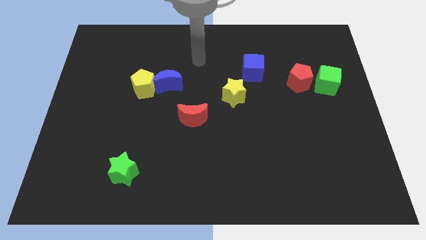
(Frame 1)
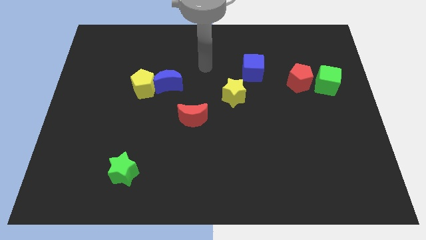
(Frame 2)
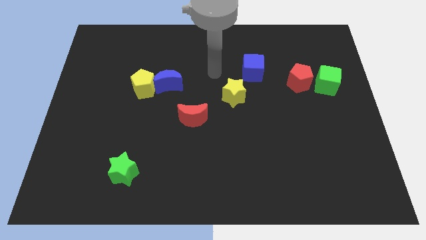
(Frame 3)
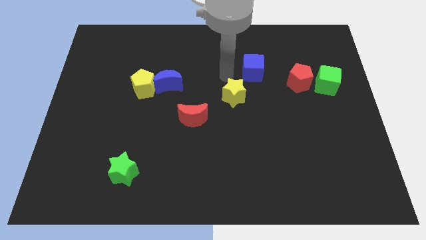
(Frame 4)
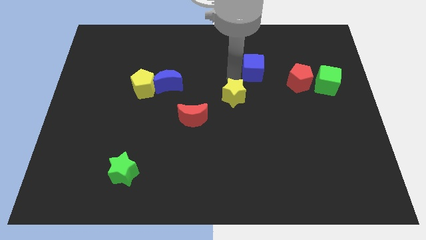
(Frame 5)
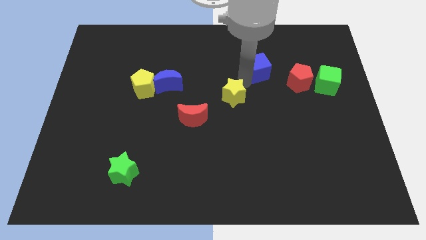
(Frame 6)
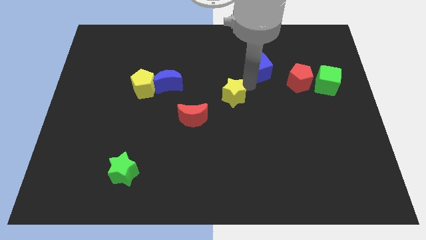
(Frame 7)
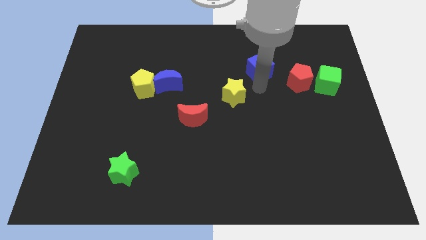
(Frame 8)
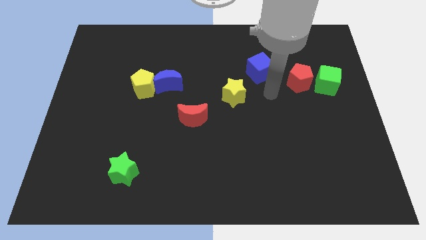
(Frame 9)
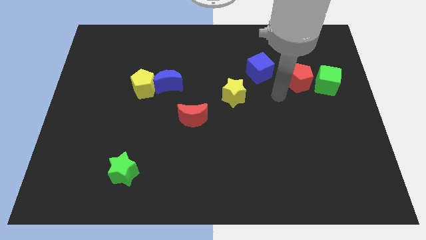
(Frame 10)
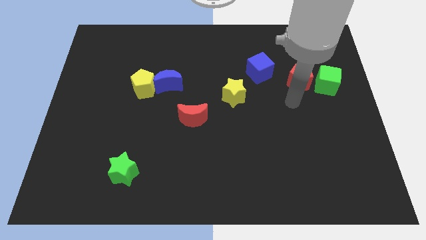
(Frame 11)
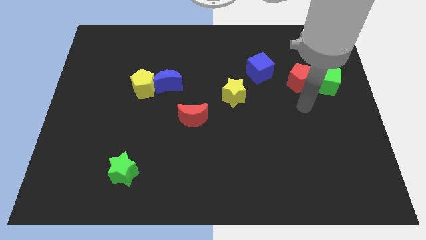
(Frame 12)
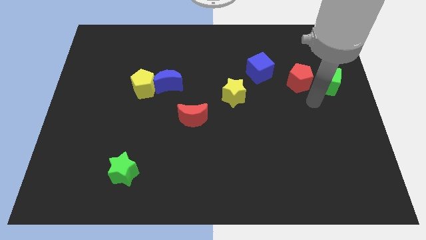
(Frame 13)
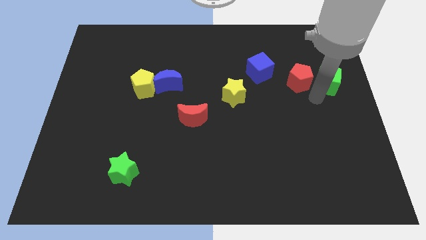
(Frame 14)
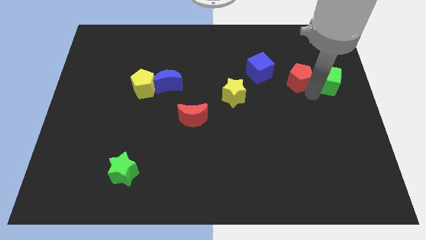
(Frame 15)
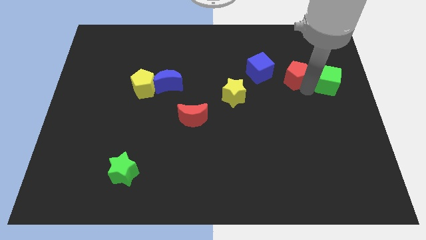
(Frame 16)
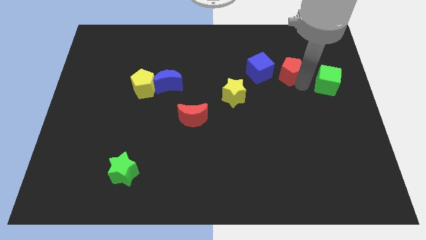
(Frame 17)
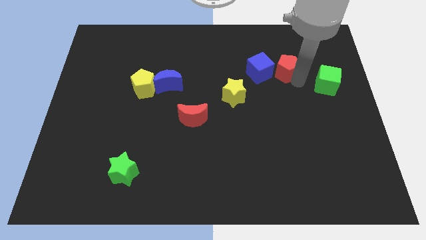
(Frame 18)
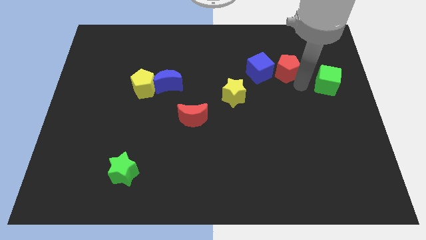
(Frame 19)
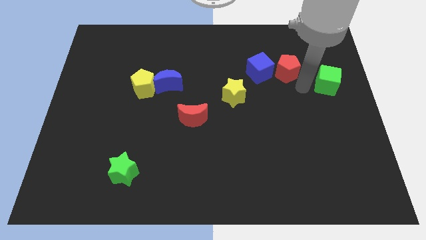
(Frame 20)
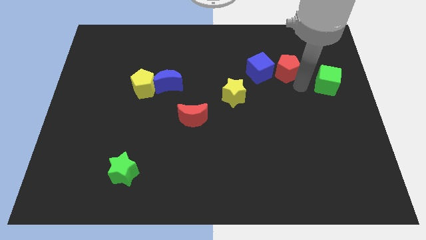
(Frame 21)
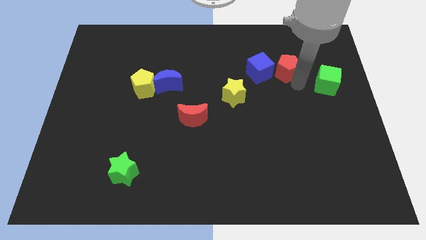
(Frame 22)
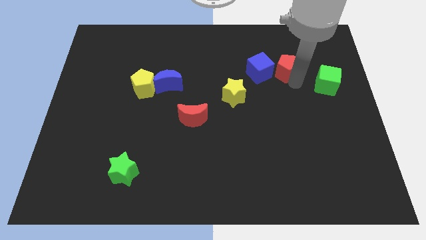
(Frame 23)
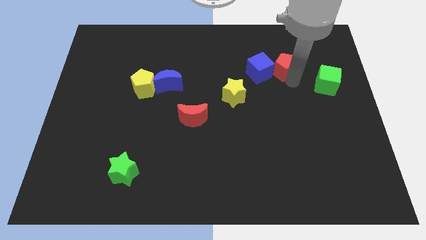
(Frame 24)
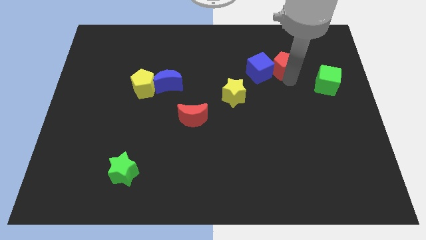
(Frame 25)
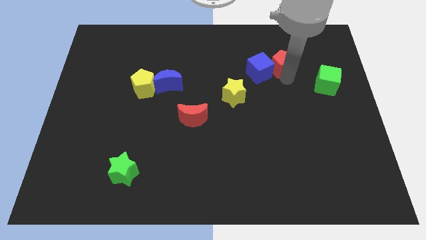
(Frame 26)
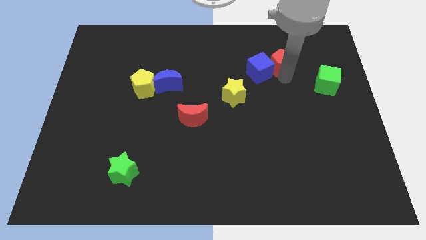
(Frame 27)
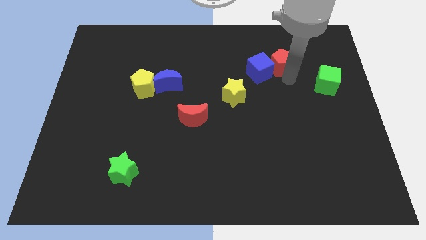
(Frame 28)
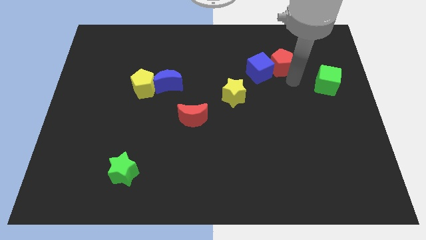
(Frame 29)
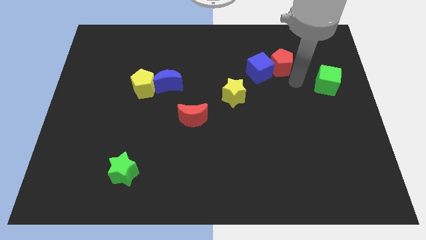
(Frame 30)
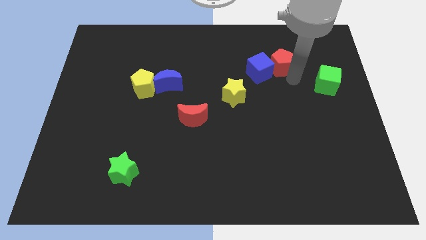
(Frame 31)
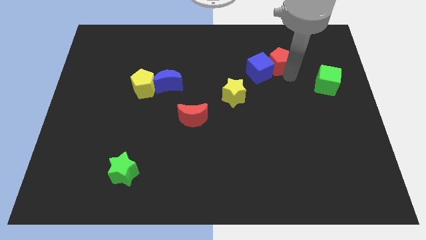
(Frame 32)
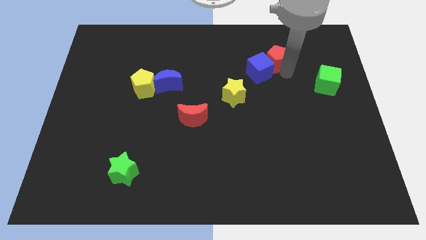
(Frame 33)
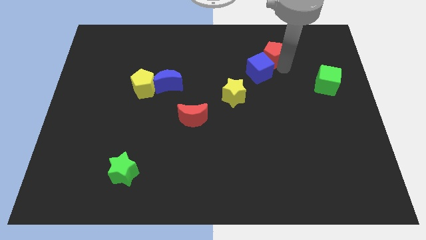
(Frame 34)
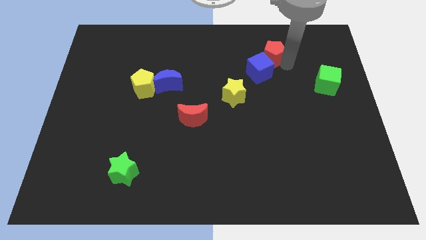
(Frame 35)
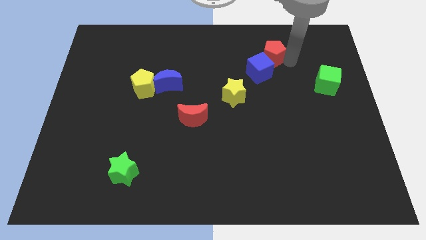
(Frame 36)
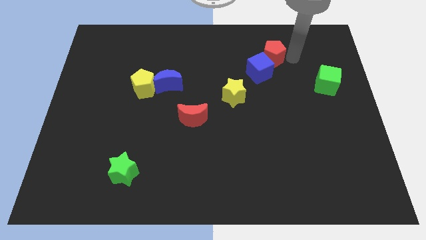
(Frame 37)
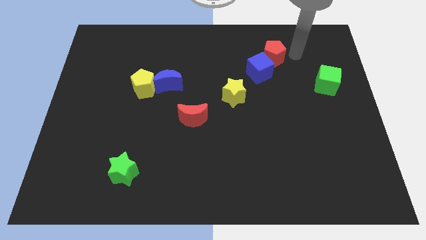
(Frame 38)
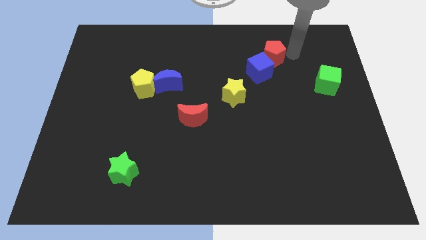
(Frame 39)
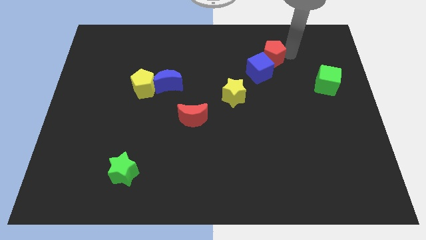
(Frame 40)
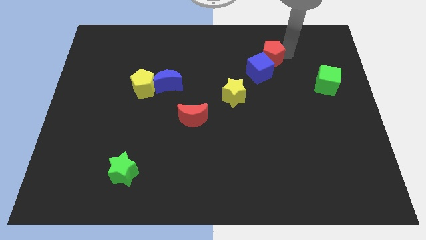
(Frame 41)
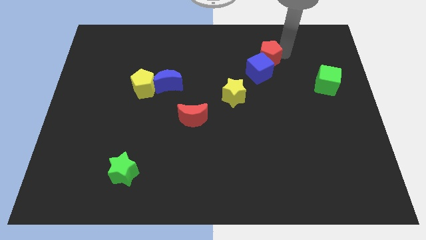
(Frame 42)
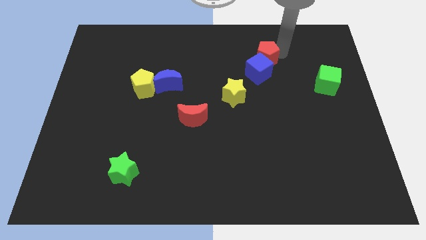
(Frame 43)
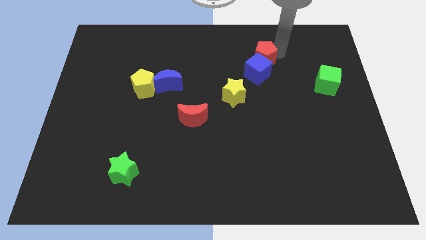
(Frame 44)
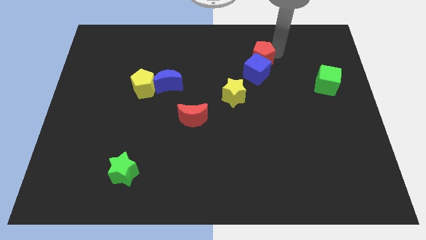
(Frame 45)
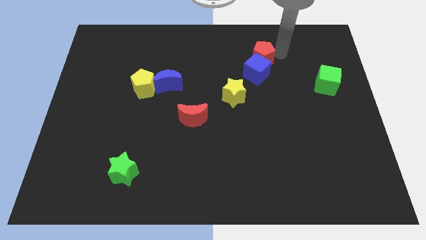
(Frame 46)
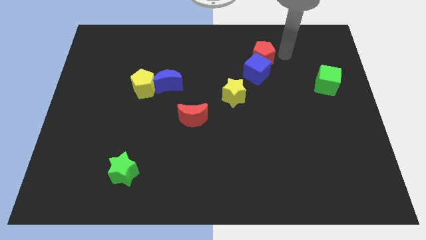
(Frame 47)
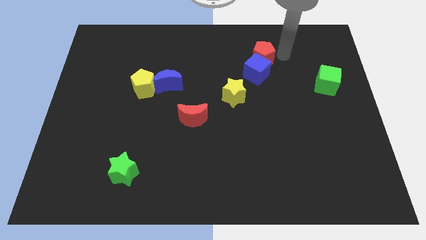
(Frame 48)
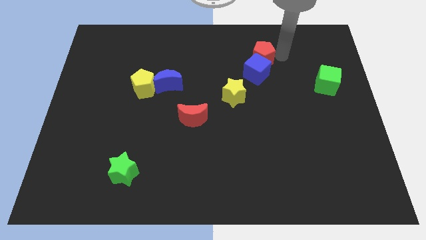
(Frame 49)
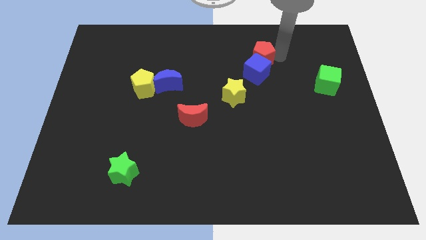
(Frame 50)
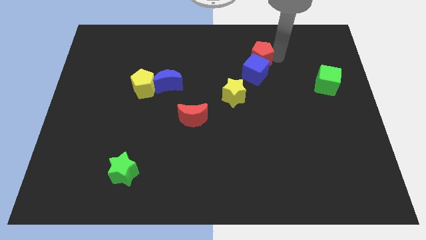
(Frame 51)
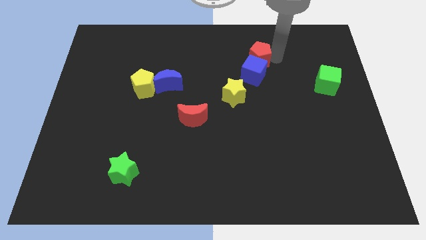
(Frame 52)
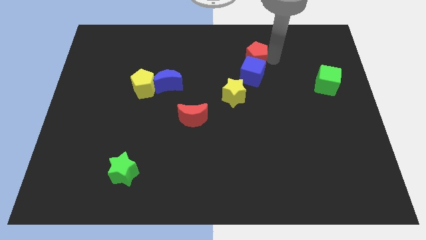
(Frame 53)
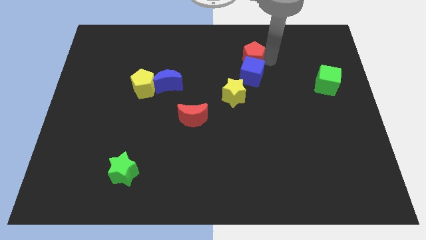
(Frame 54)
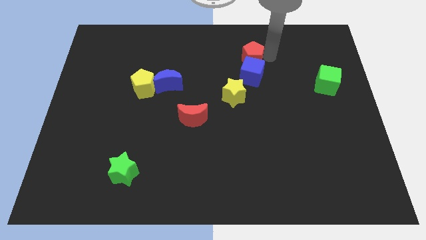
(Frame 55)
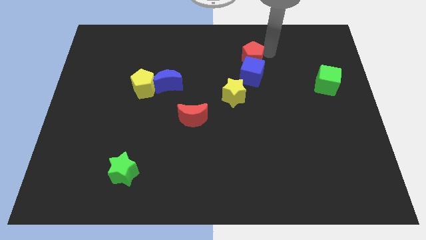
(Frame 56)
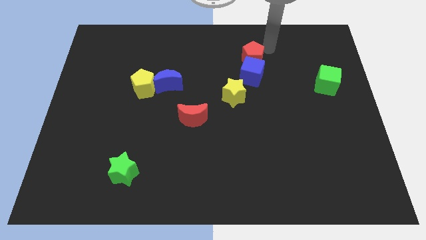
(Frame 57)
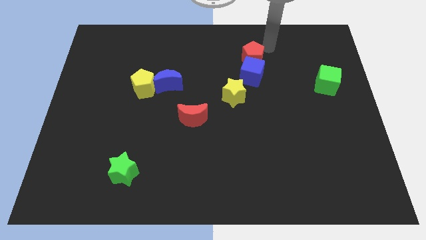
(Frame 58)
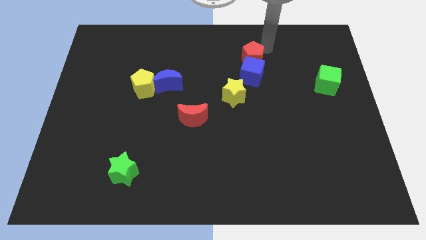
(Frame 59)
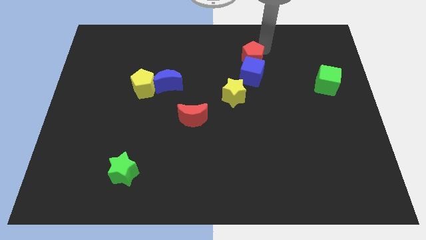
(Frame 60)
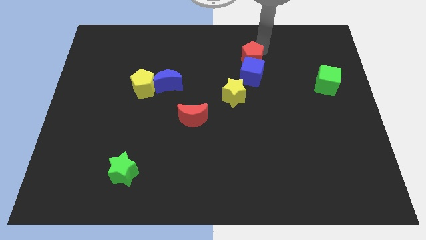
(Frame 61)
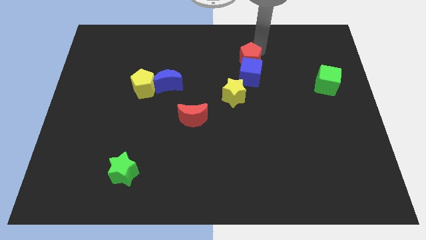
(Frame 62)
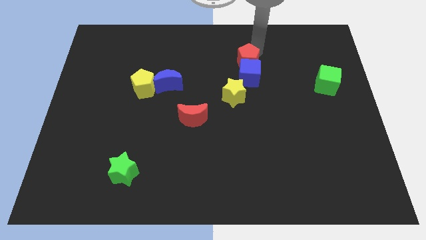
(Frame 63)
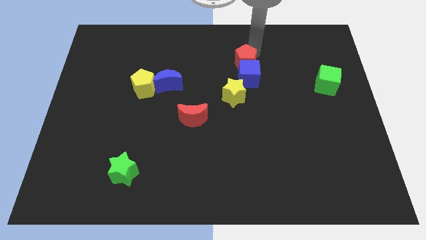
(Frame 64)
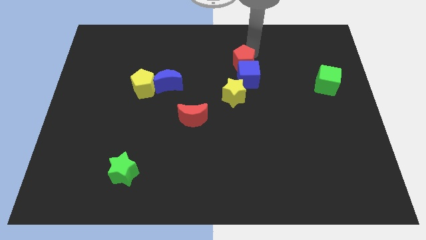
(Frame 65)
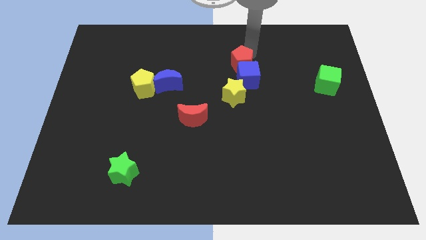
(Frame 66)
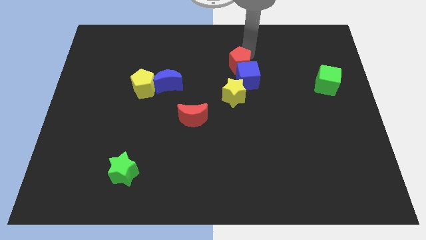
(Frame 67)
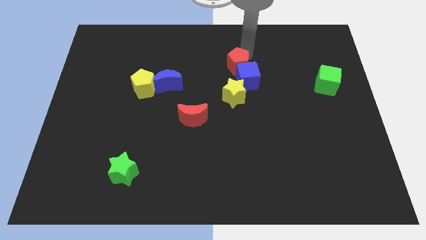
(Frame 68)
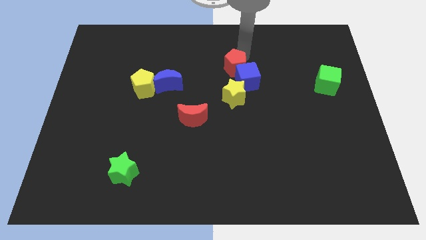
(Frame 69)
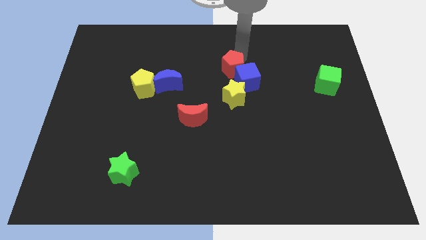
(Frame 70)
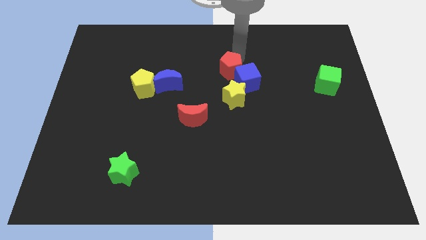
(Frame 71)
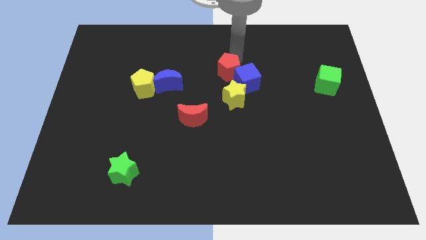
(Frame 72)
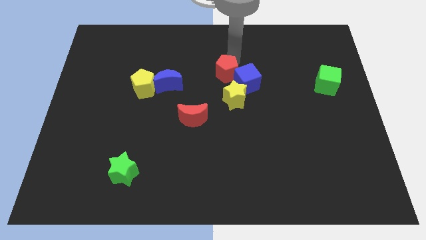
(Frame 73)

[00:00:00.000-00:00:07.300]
push the red pentagon diagonally up and to the left of the yellow star

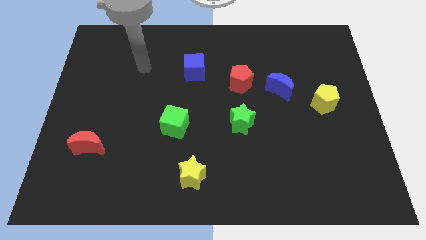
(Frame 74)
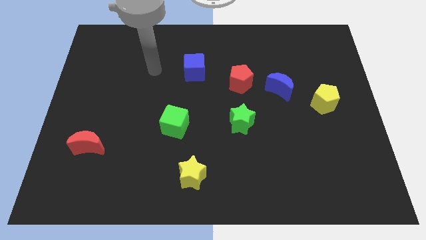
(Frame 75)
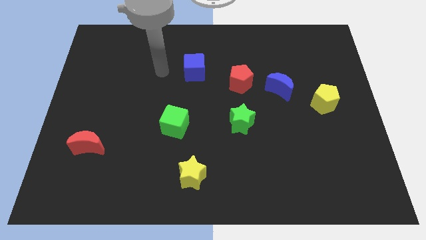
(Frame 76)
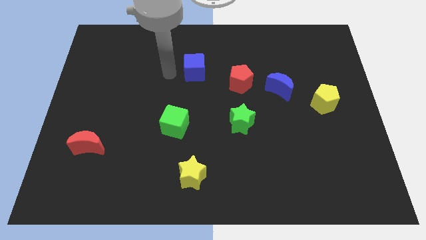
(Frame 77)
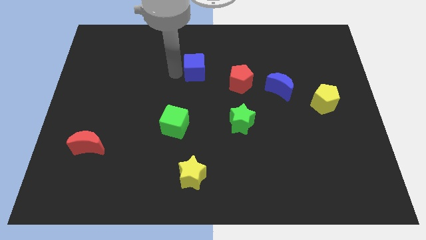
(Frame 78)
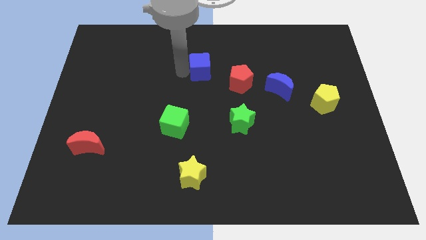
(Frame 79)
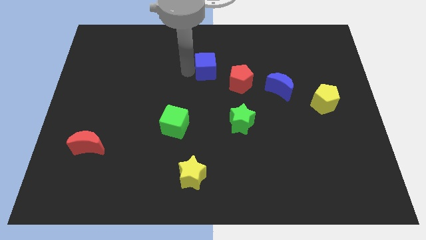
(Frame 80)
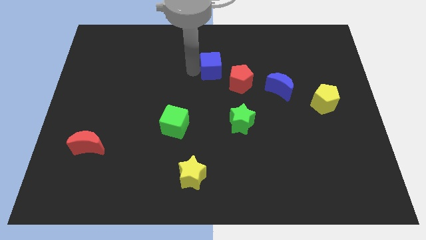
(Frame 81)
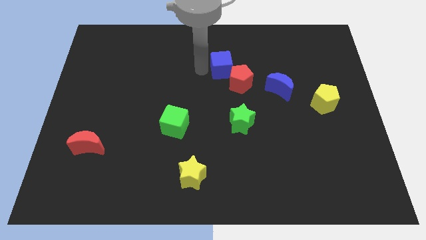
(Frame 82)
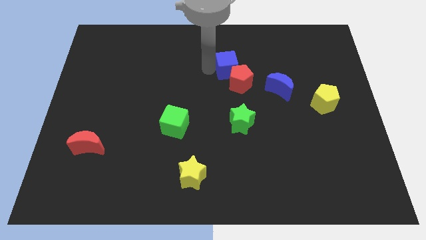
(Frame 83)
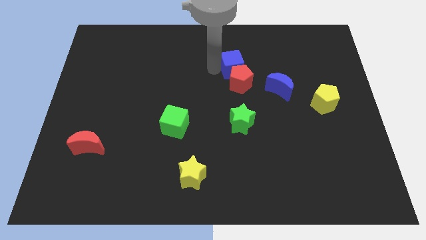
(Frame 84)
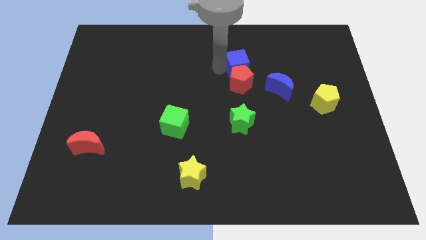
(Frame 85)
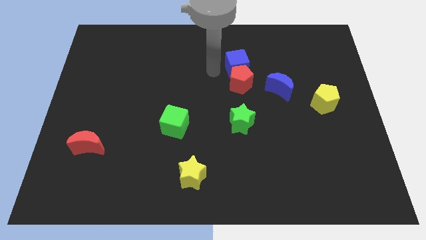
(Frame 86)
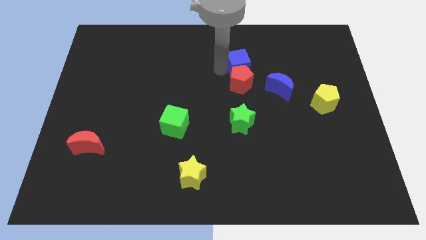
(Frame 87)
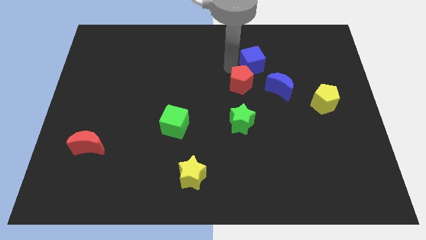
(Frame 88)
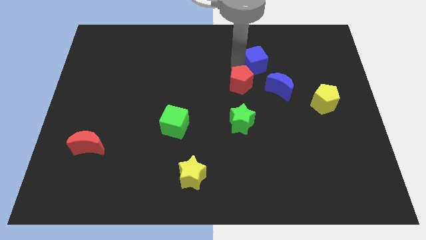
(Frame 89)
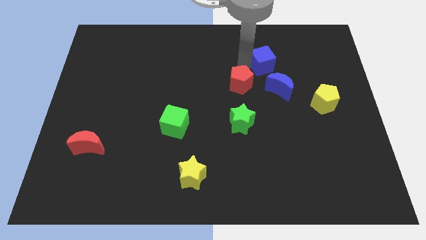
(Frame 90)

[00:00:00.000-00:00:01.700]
put the blue cube to the top side of the blue moon
